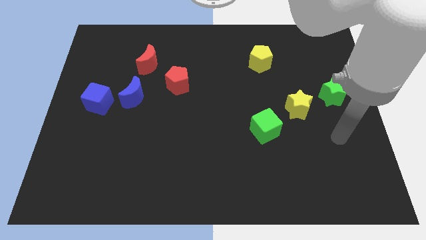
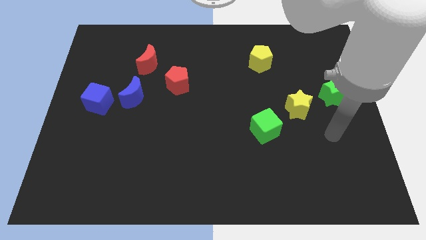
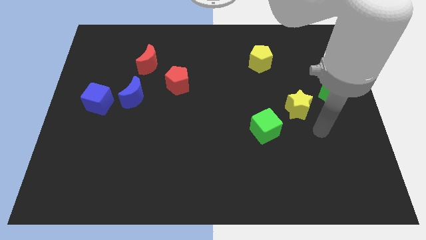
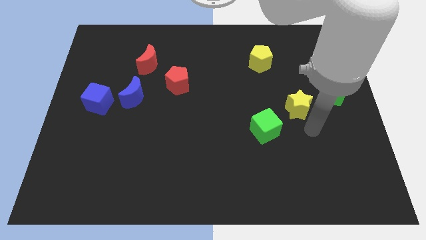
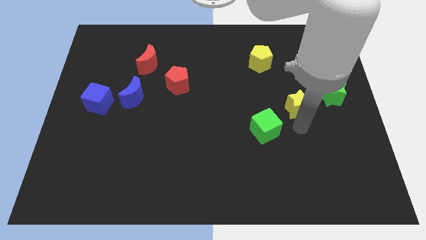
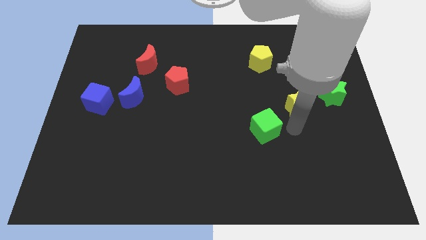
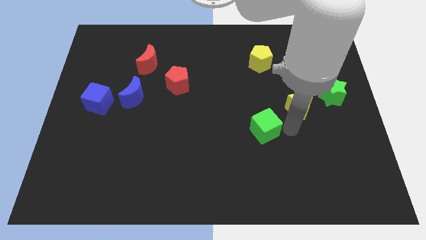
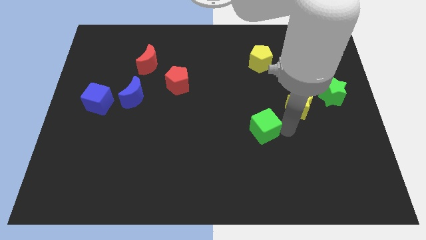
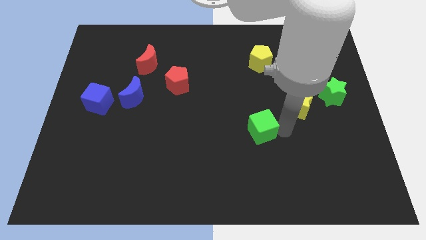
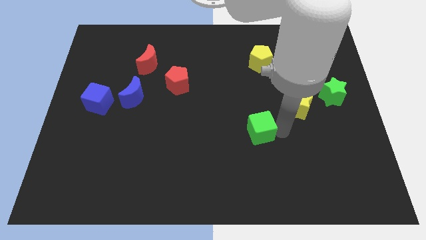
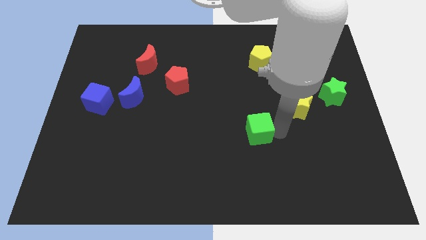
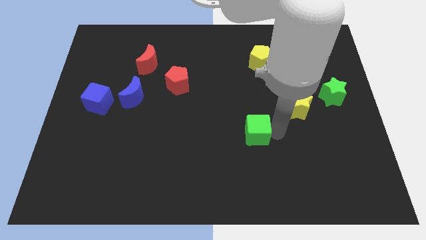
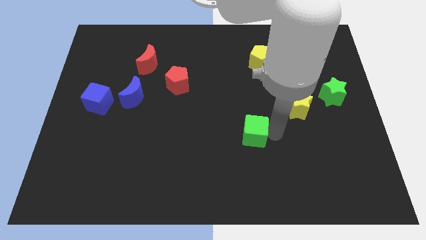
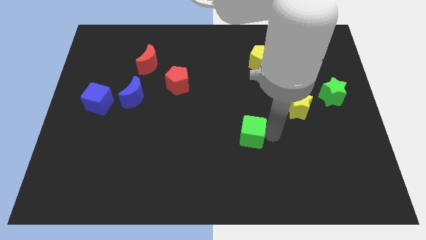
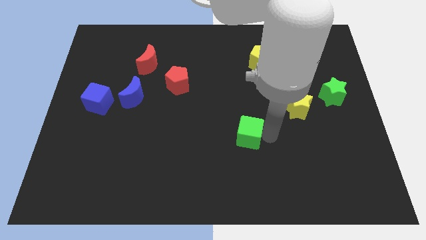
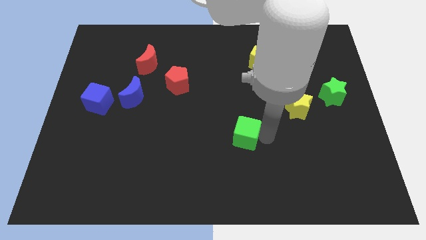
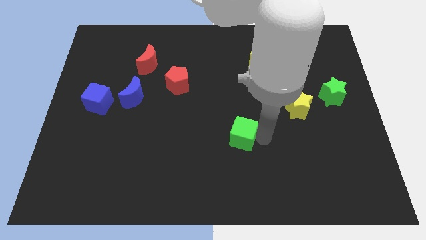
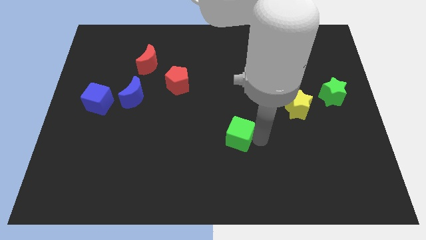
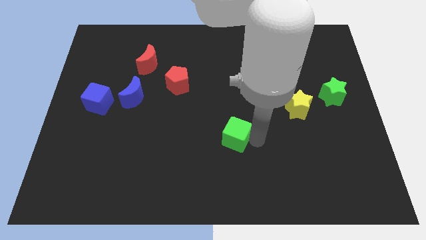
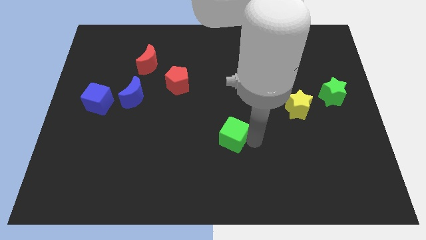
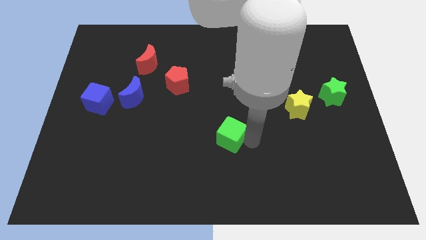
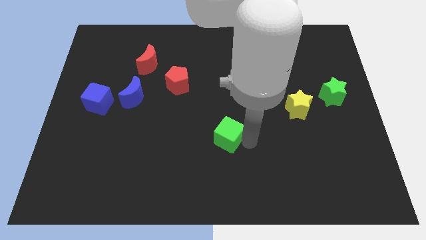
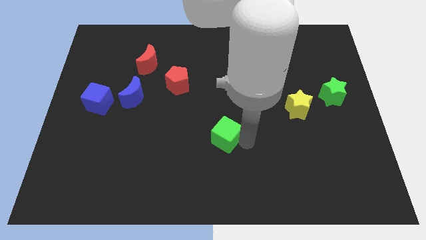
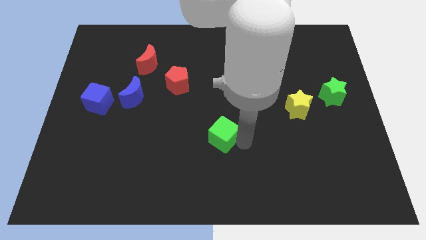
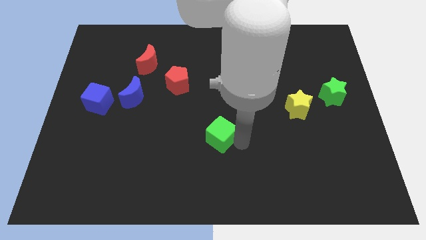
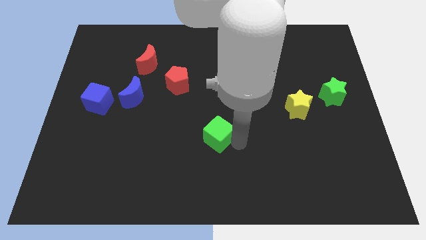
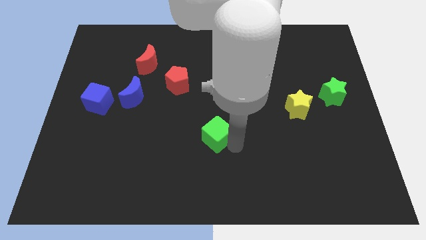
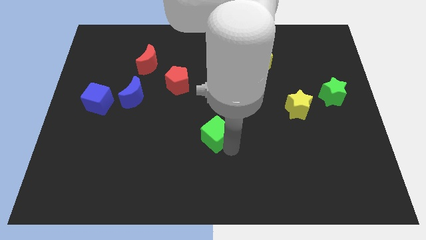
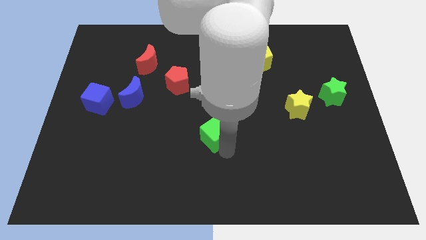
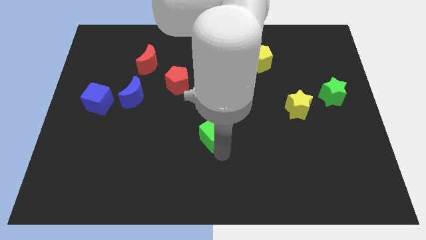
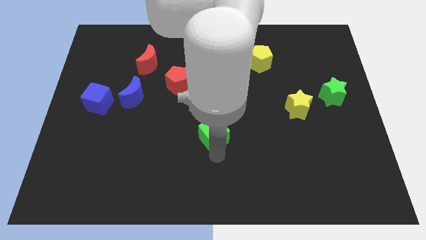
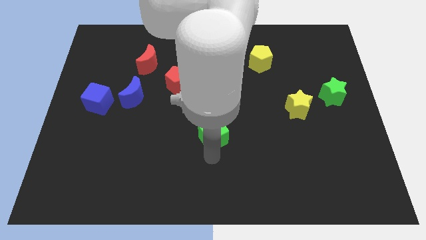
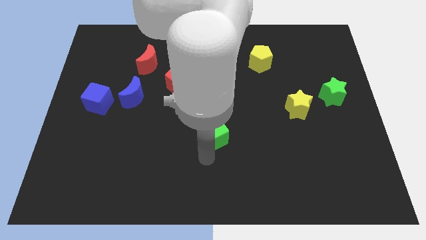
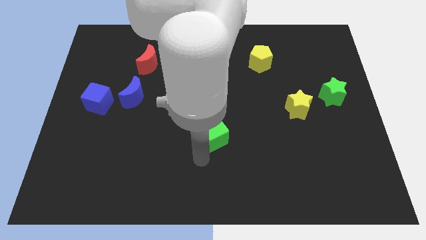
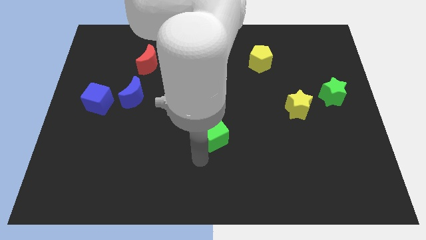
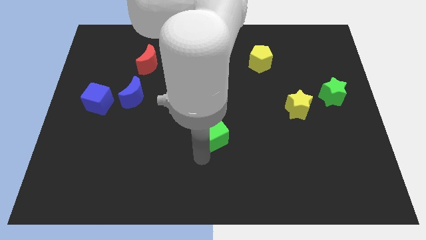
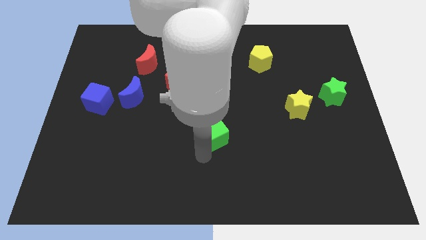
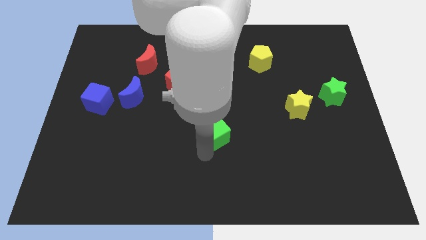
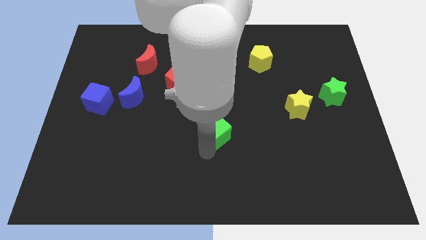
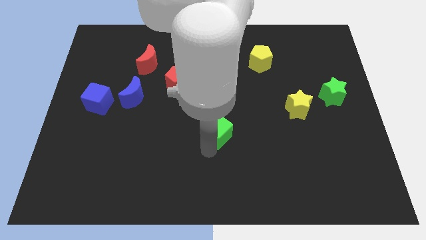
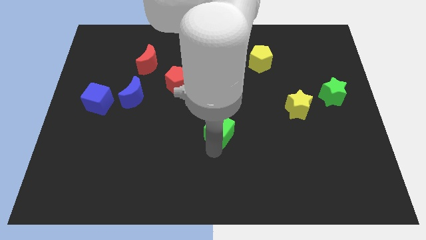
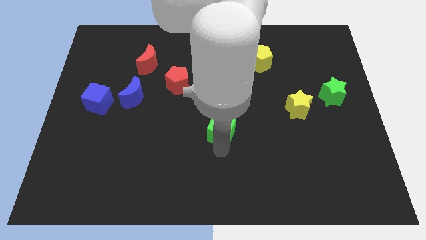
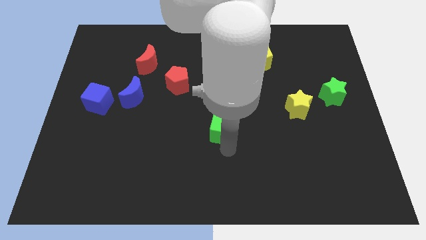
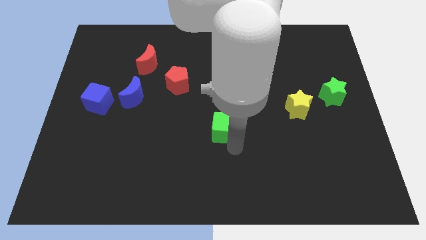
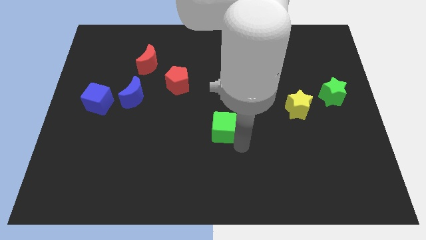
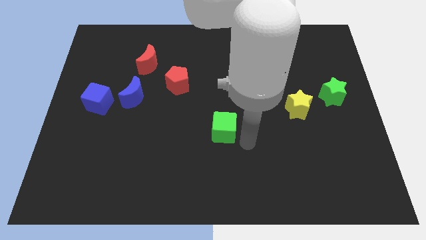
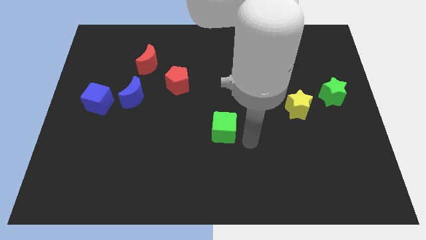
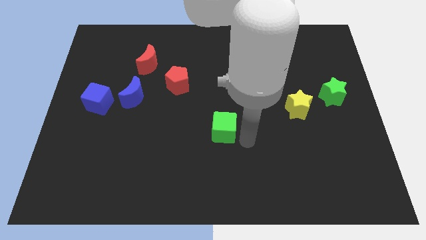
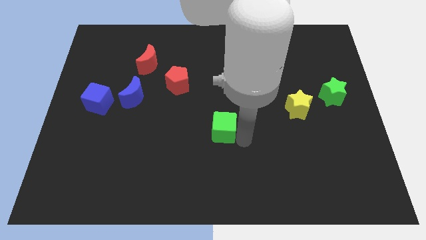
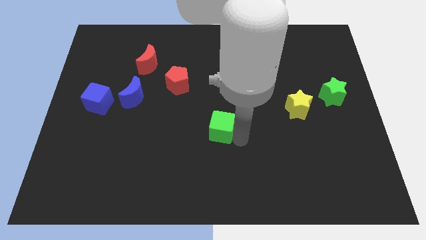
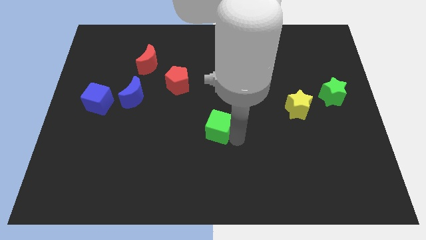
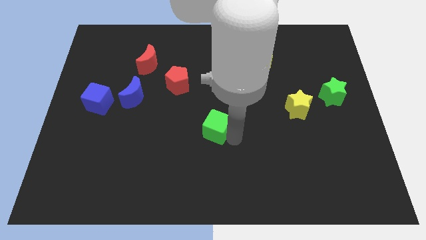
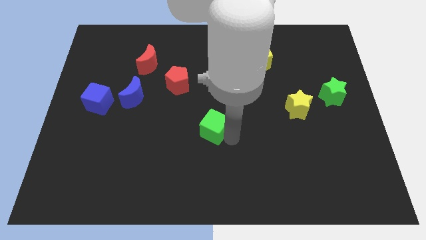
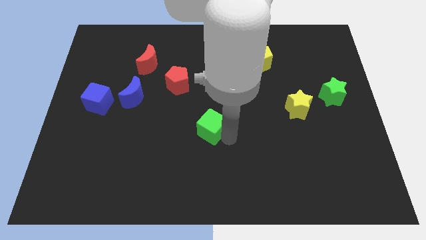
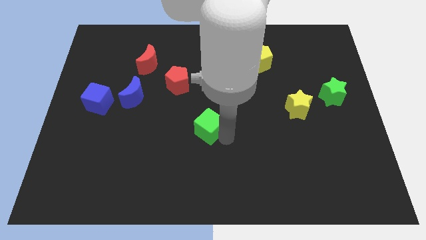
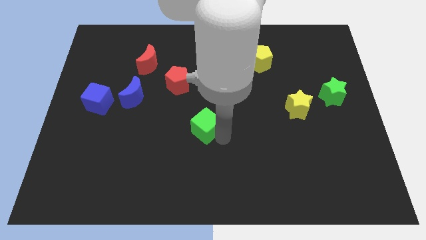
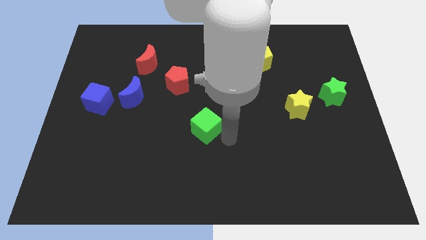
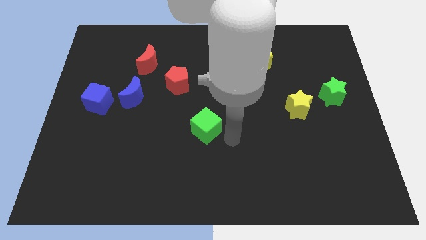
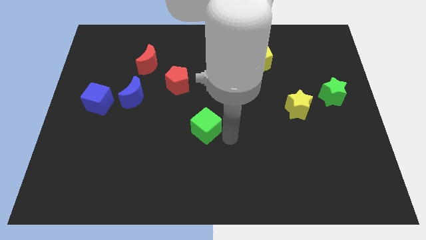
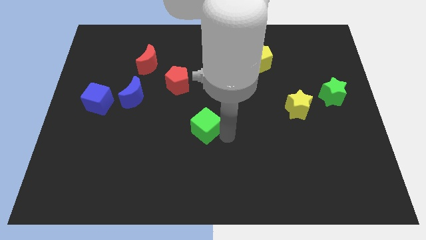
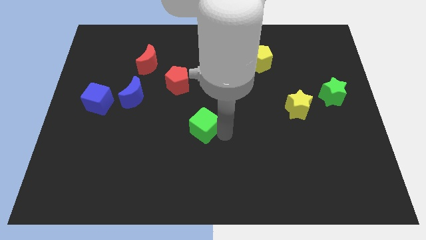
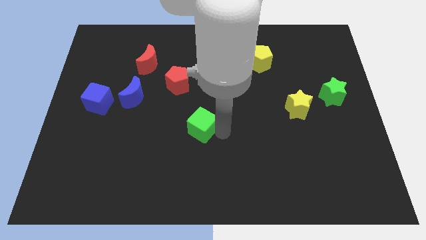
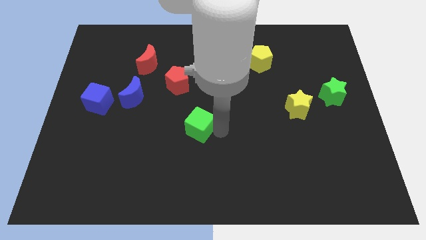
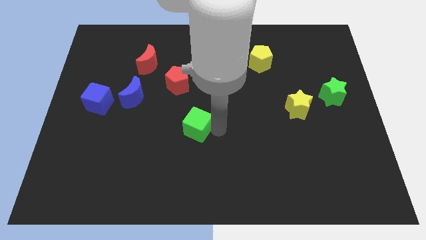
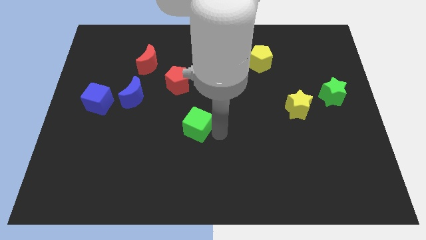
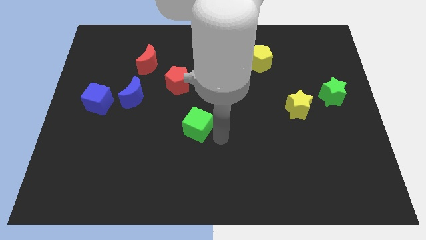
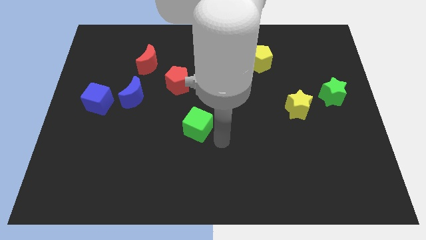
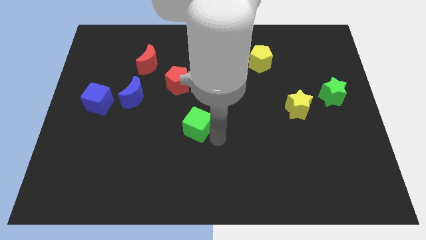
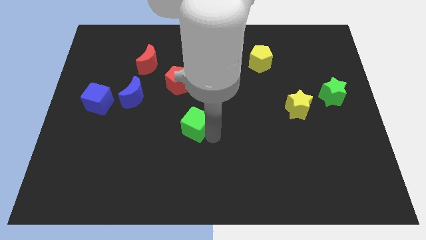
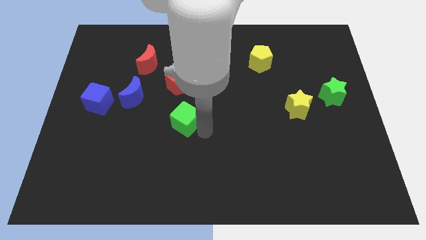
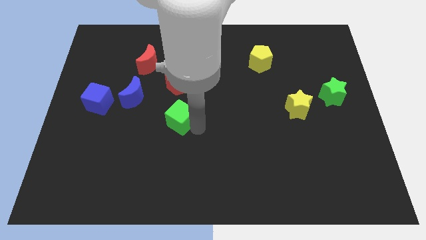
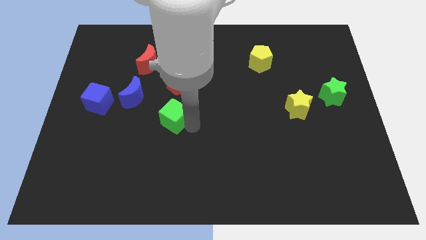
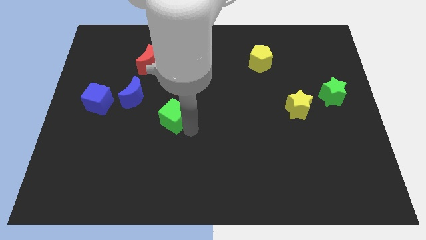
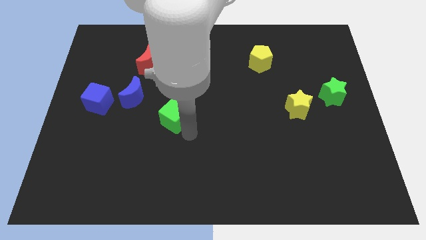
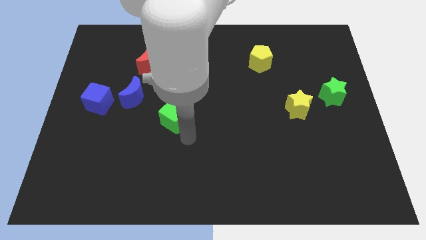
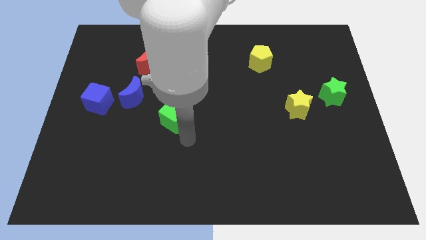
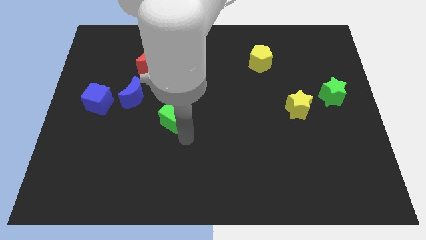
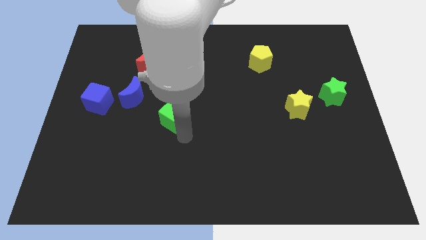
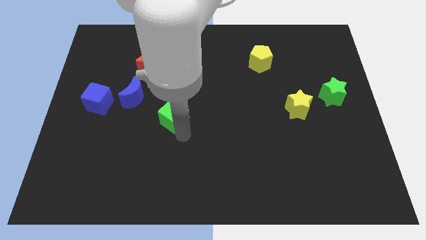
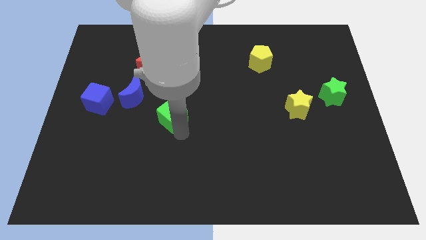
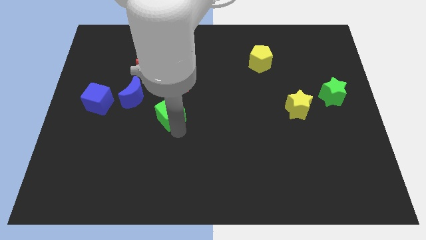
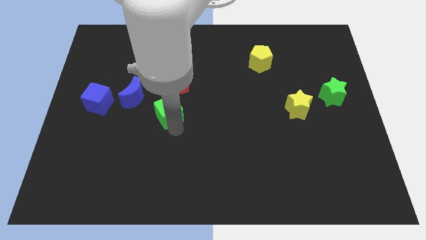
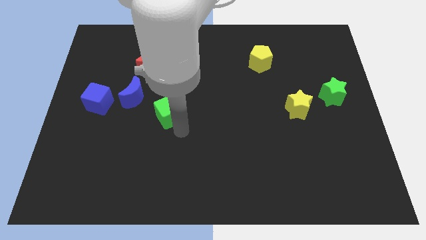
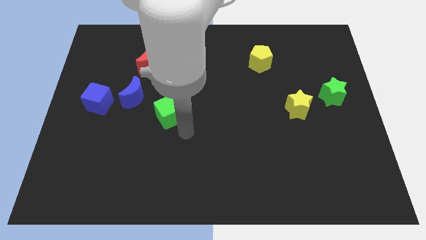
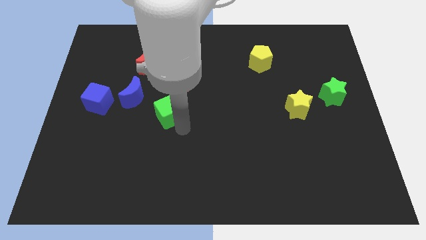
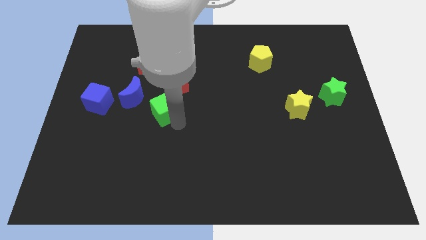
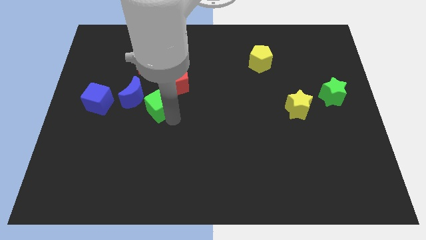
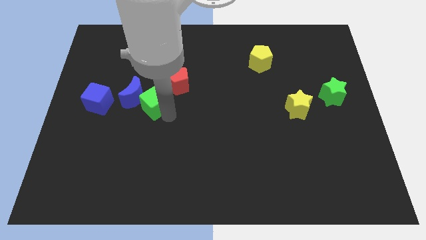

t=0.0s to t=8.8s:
push the green cube towards the blue moon
